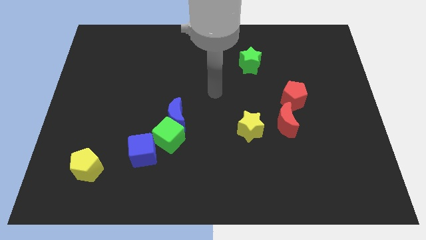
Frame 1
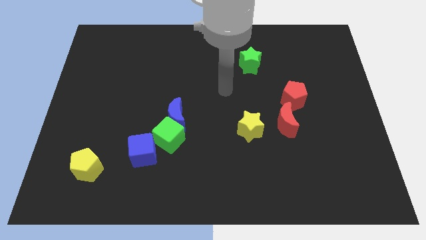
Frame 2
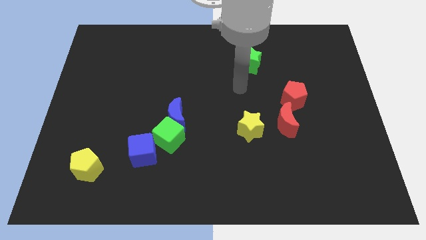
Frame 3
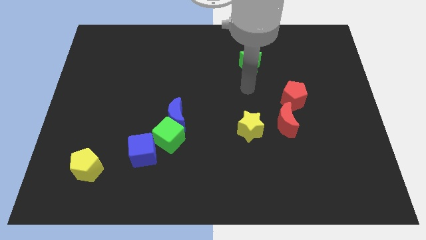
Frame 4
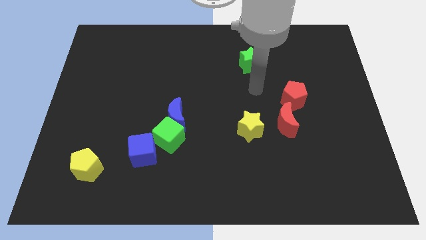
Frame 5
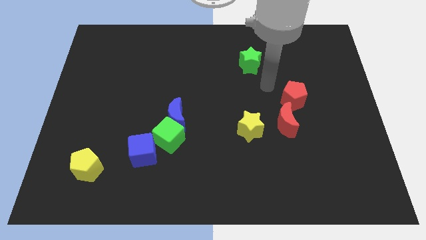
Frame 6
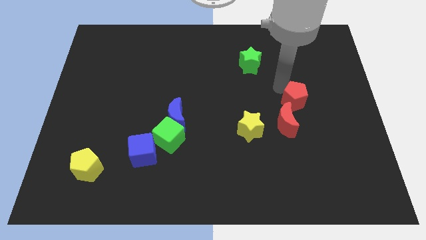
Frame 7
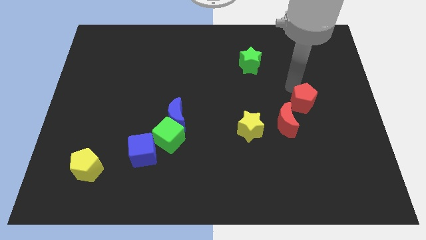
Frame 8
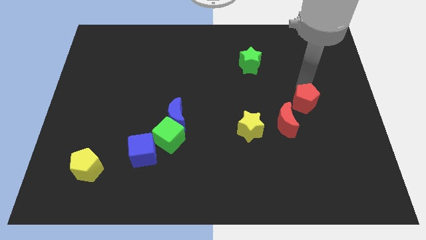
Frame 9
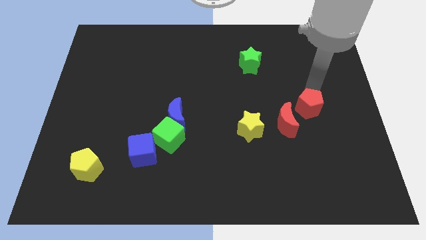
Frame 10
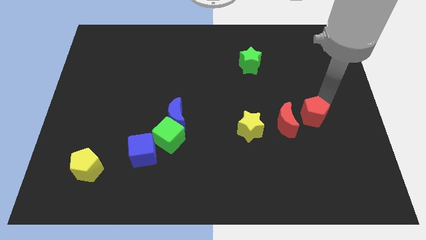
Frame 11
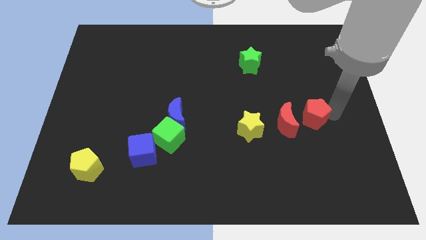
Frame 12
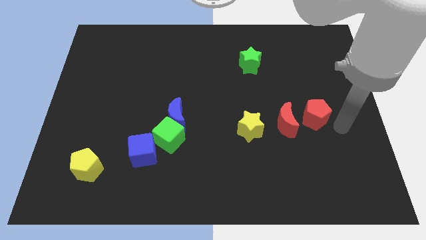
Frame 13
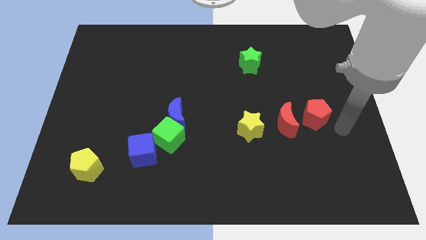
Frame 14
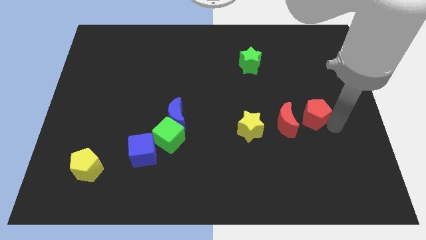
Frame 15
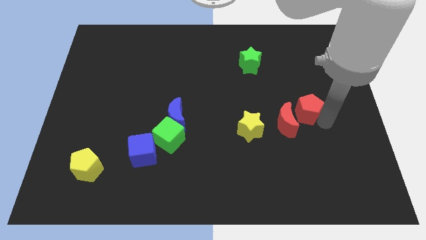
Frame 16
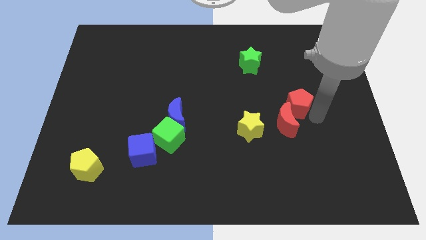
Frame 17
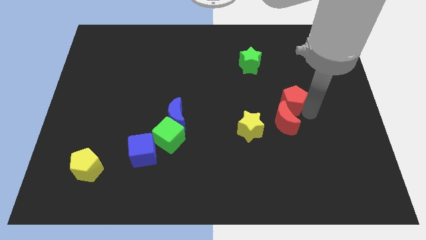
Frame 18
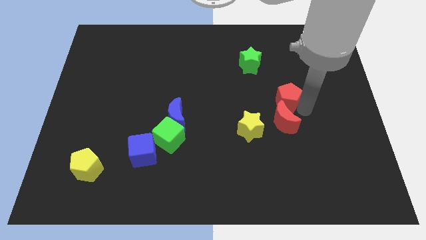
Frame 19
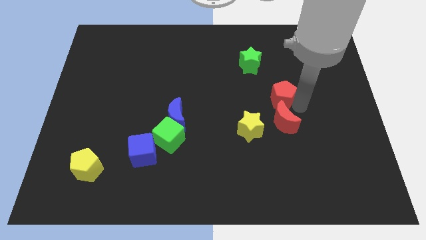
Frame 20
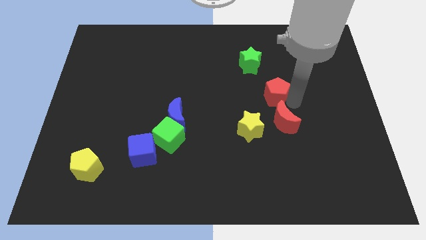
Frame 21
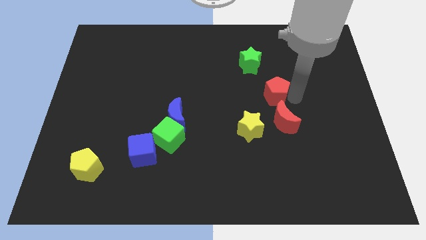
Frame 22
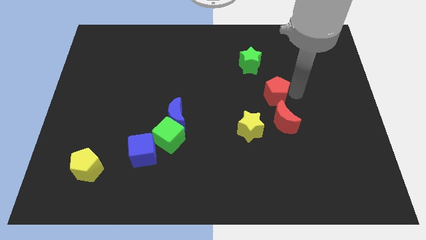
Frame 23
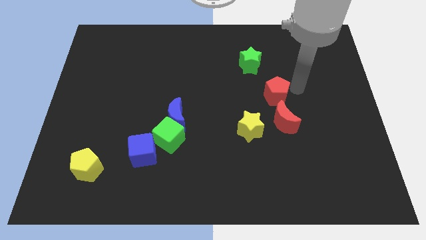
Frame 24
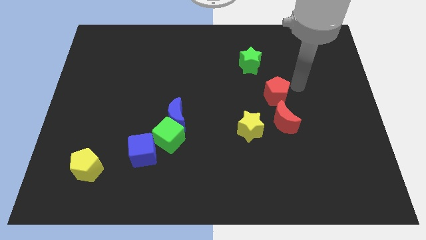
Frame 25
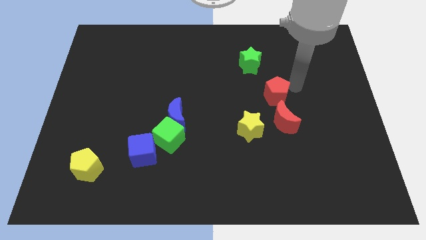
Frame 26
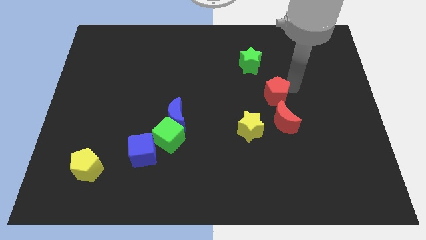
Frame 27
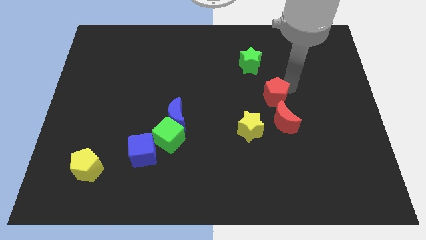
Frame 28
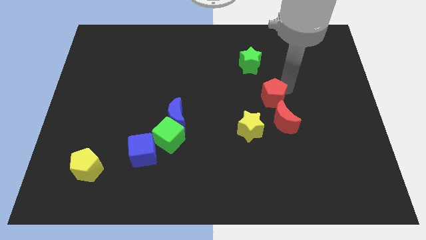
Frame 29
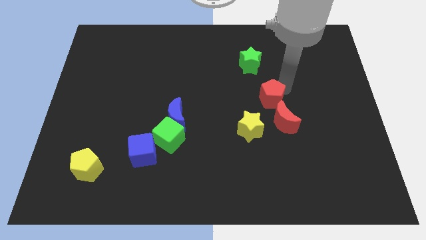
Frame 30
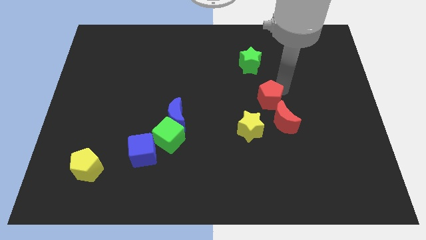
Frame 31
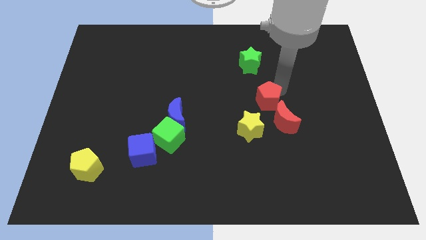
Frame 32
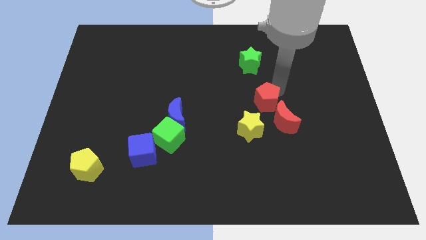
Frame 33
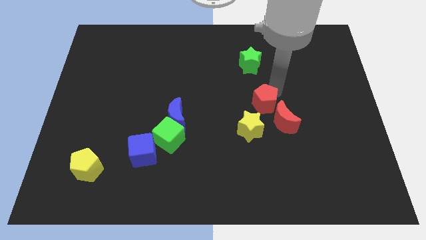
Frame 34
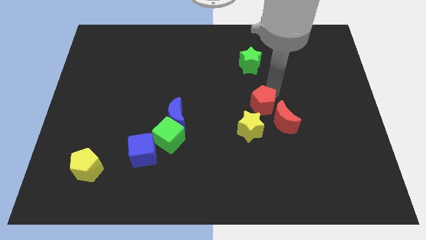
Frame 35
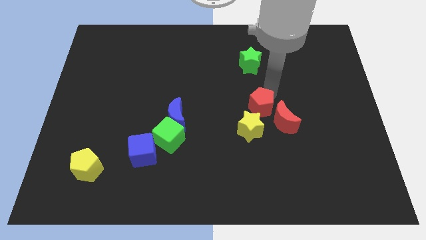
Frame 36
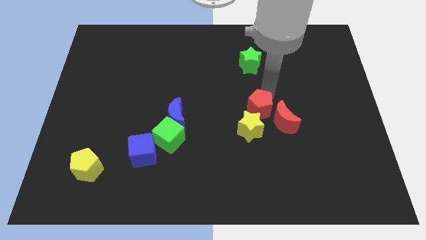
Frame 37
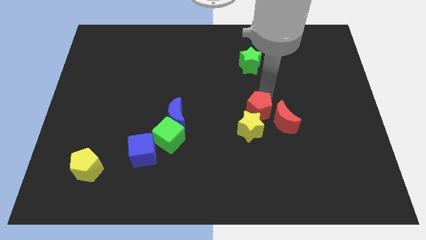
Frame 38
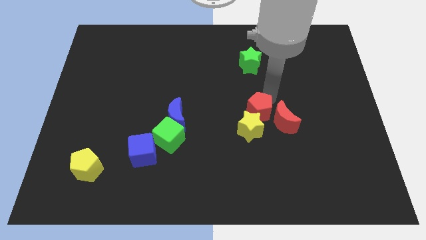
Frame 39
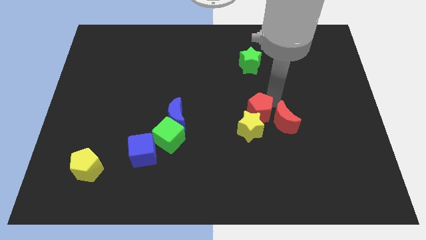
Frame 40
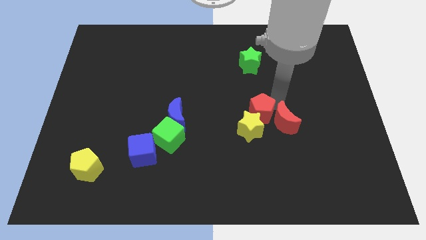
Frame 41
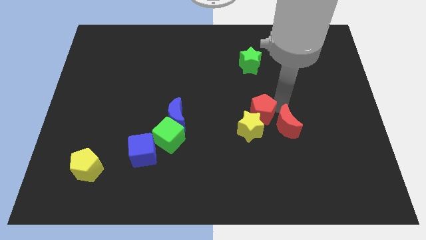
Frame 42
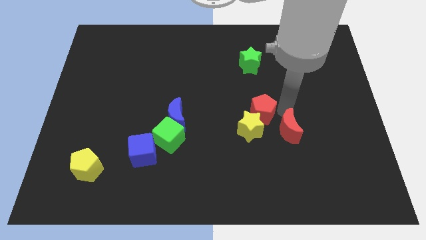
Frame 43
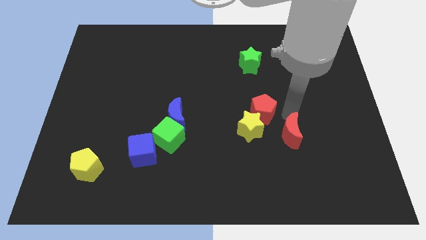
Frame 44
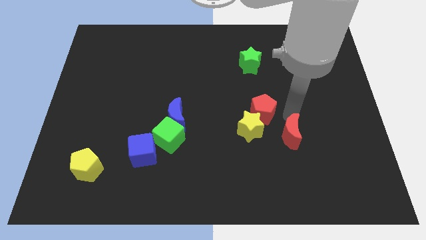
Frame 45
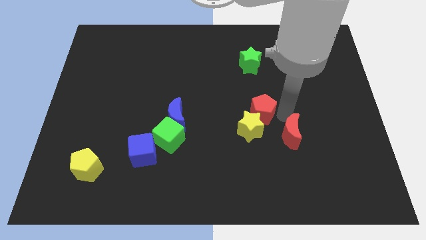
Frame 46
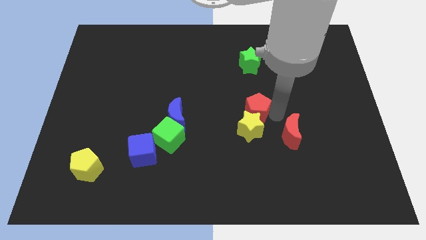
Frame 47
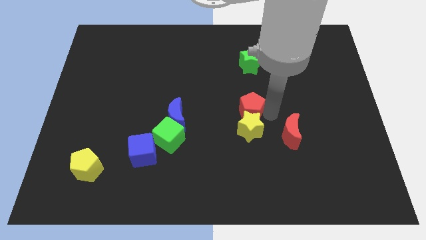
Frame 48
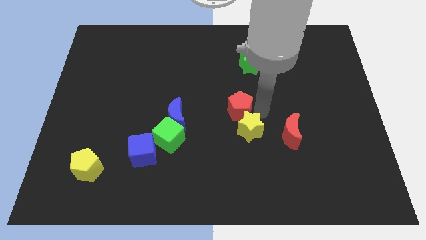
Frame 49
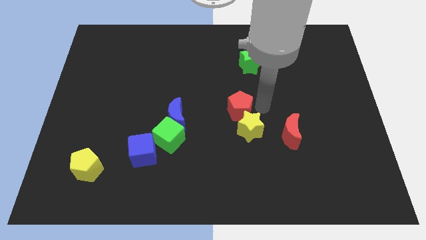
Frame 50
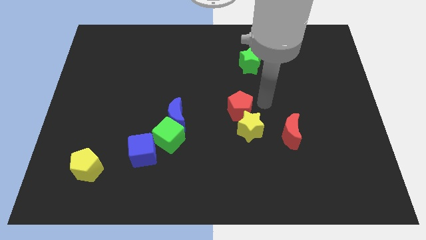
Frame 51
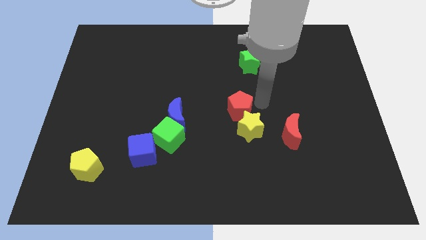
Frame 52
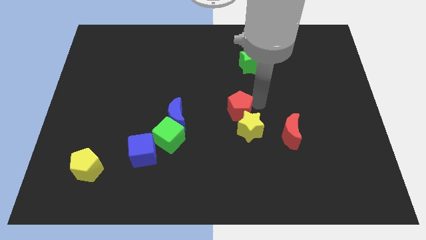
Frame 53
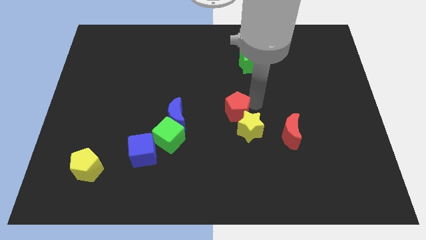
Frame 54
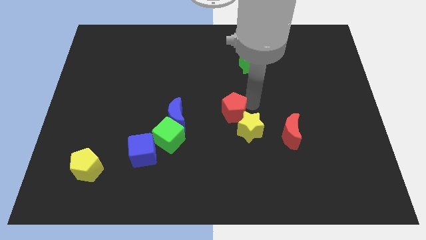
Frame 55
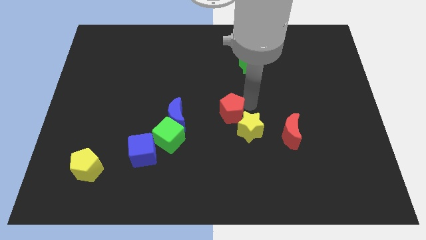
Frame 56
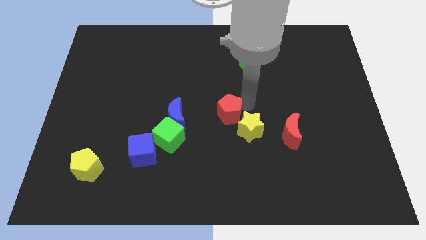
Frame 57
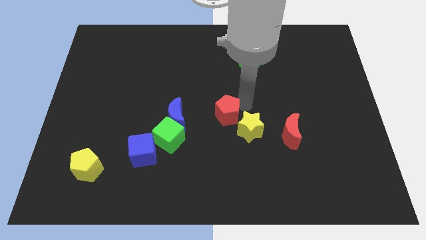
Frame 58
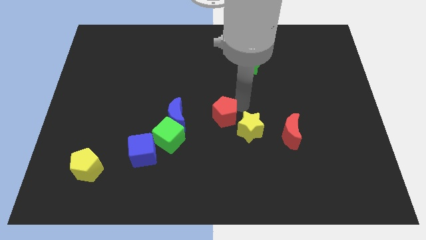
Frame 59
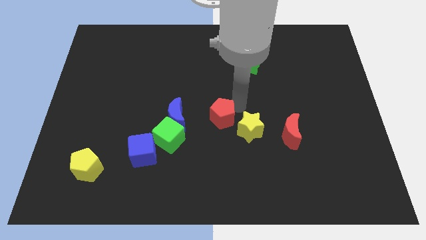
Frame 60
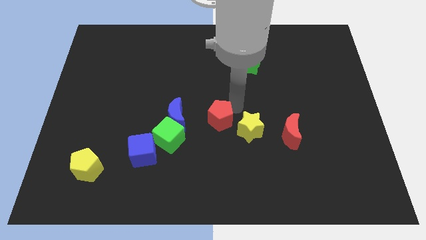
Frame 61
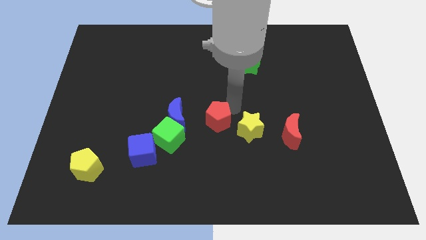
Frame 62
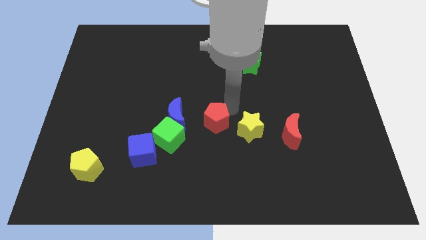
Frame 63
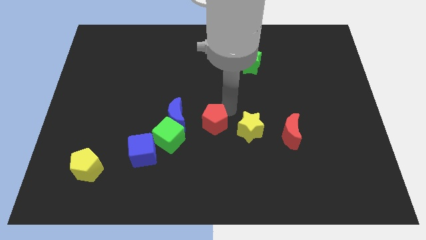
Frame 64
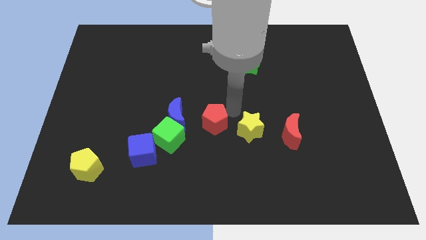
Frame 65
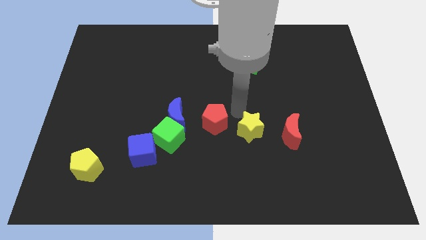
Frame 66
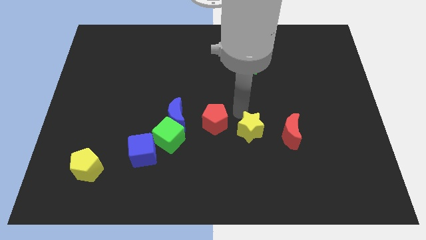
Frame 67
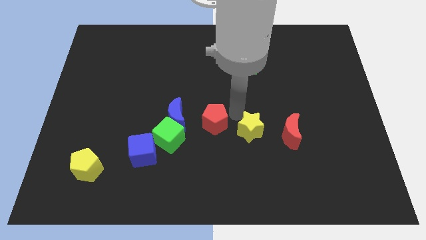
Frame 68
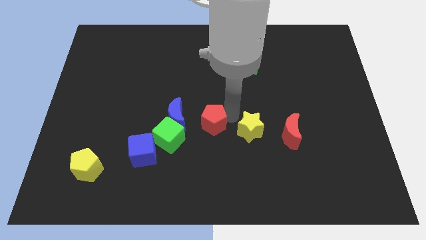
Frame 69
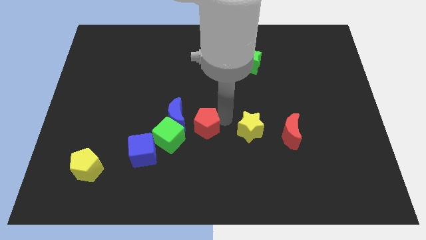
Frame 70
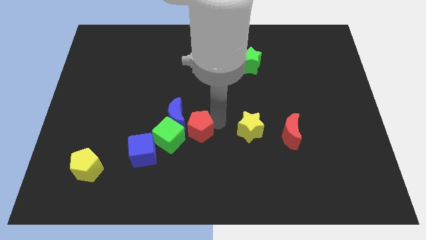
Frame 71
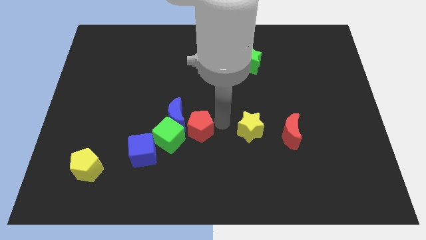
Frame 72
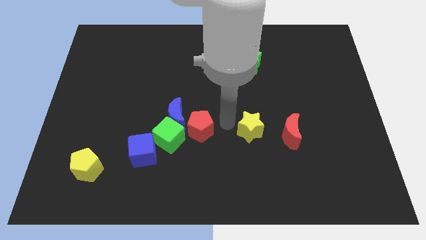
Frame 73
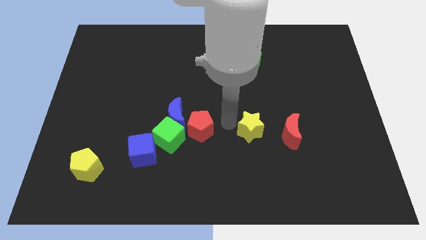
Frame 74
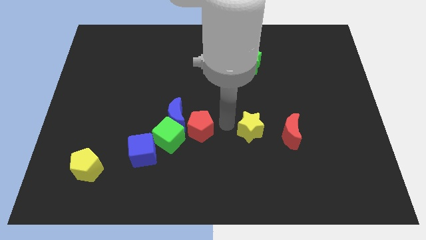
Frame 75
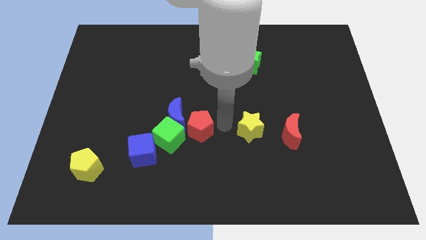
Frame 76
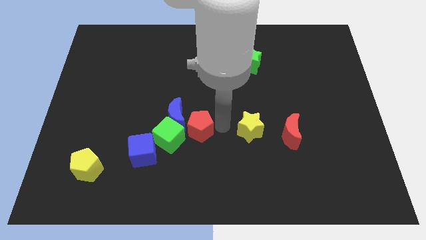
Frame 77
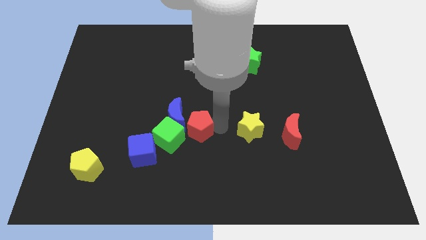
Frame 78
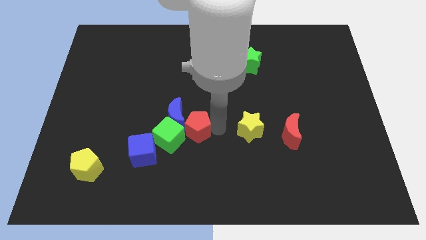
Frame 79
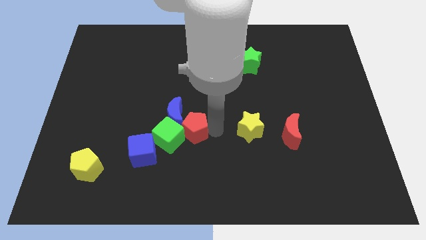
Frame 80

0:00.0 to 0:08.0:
put the red pentagon towards the green cube
